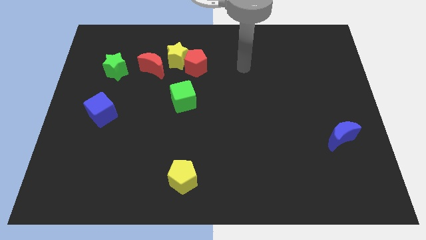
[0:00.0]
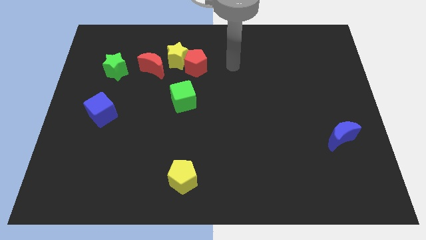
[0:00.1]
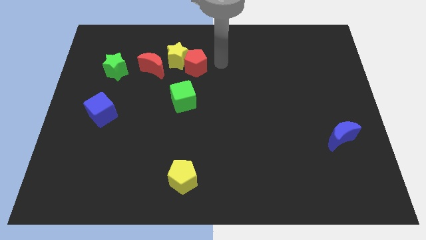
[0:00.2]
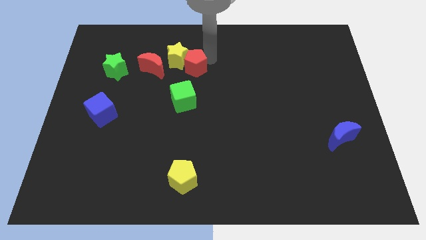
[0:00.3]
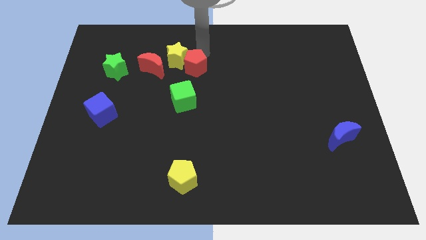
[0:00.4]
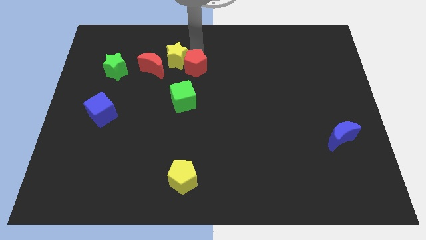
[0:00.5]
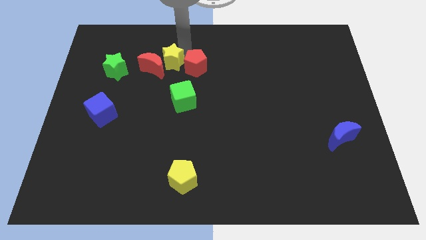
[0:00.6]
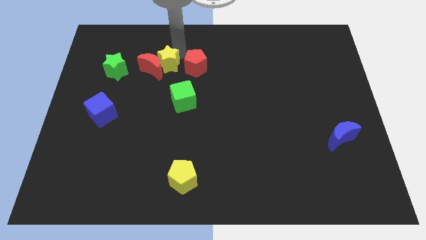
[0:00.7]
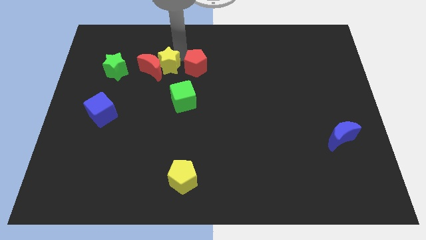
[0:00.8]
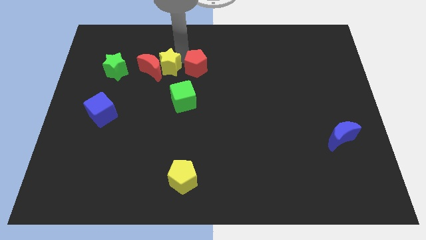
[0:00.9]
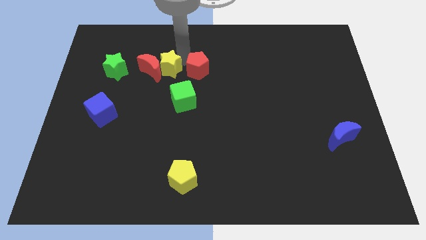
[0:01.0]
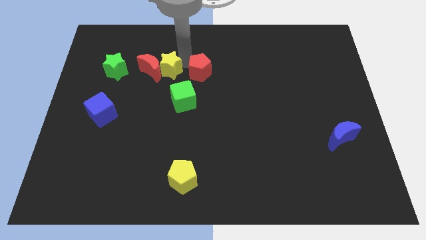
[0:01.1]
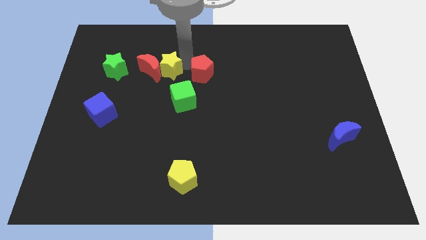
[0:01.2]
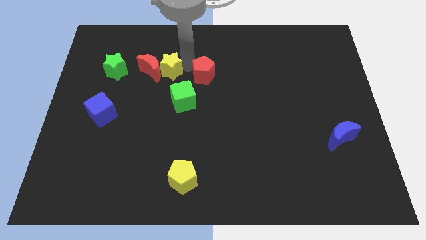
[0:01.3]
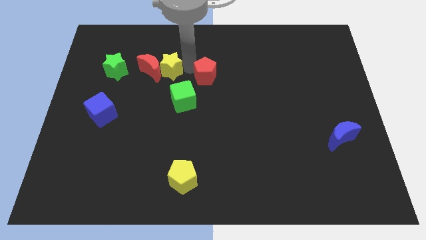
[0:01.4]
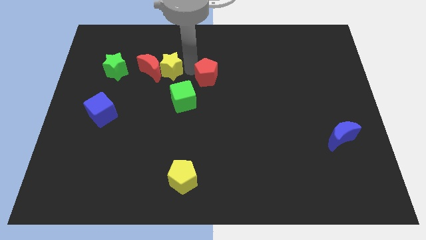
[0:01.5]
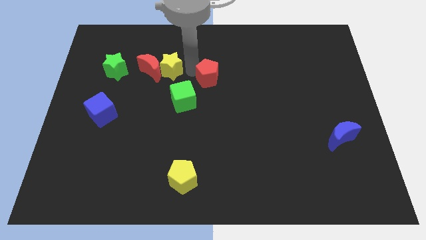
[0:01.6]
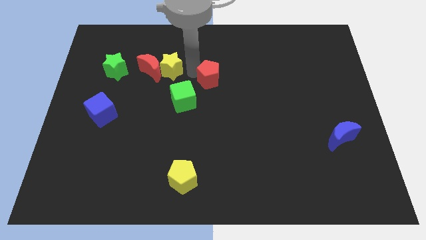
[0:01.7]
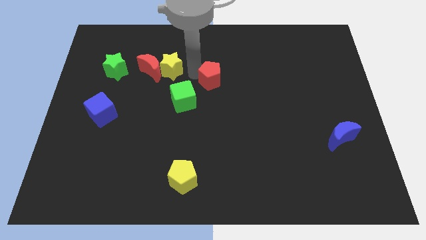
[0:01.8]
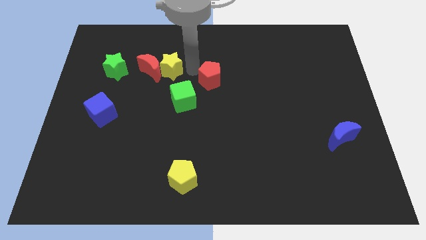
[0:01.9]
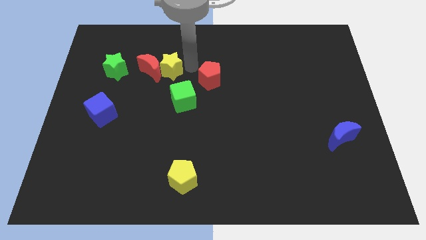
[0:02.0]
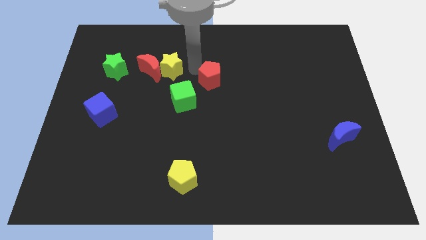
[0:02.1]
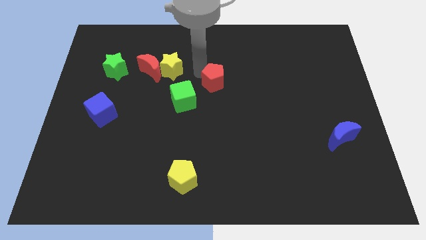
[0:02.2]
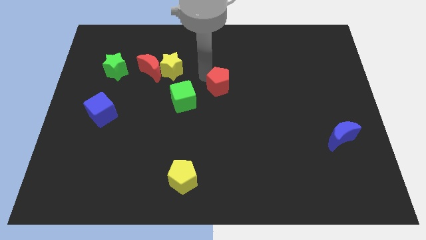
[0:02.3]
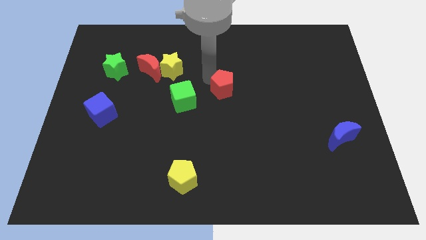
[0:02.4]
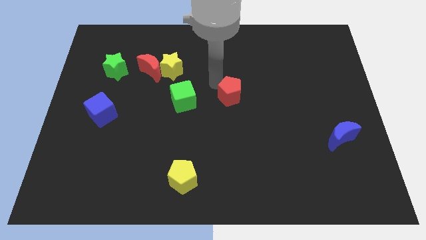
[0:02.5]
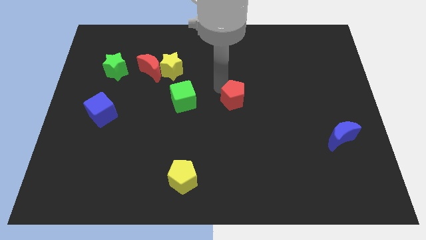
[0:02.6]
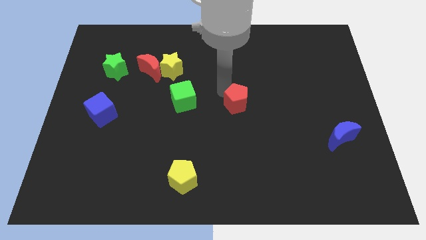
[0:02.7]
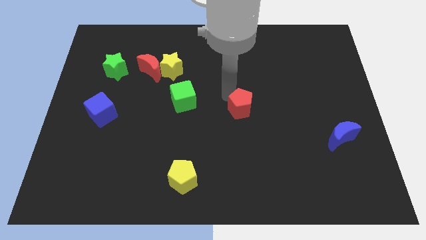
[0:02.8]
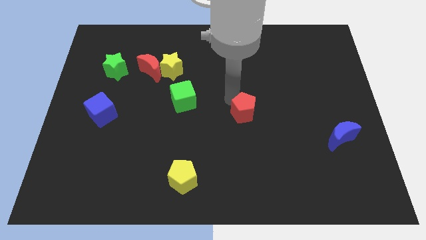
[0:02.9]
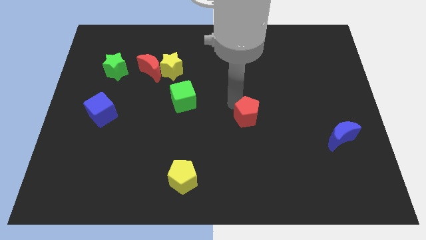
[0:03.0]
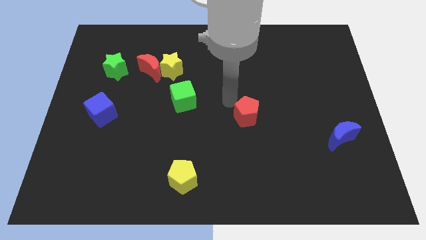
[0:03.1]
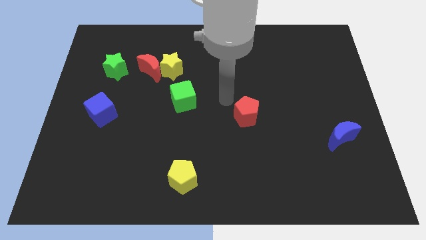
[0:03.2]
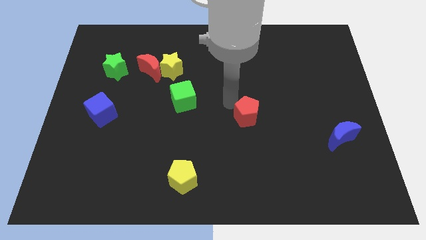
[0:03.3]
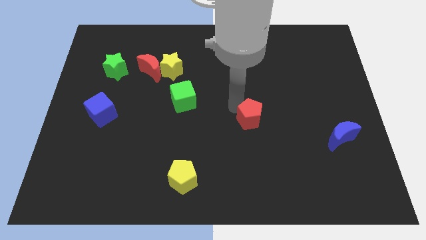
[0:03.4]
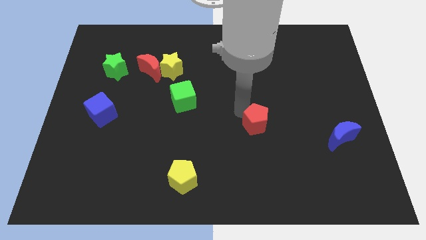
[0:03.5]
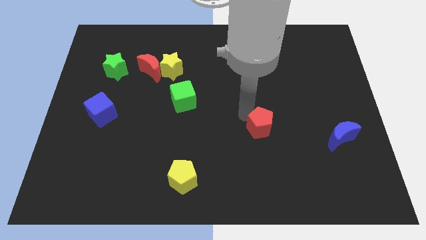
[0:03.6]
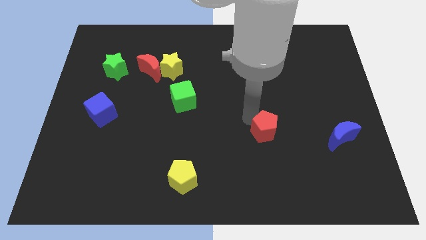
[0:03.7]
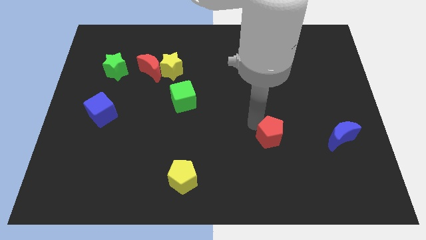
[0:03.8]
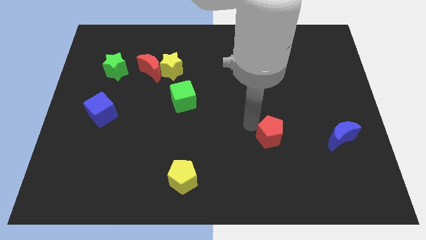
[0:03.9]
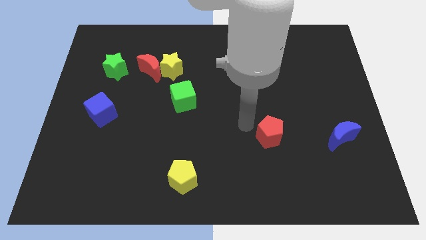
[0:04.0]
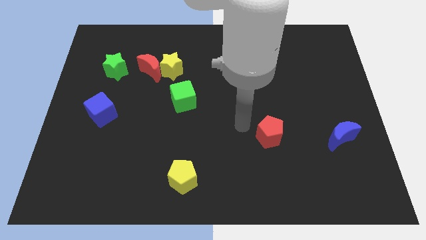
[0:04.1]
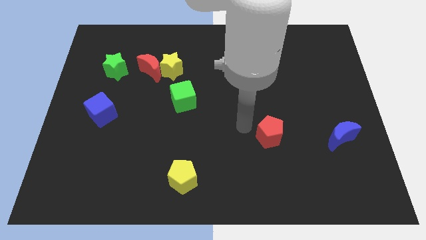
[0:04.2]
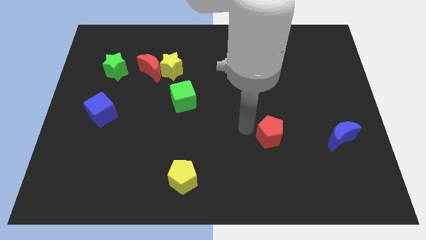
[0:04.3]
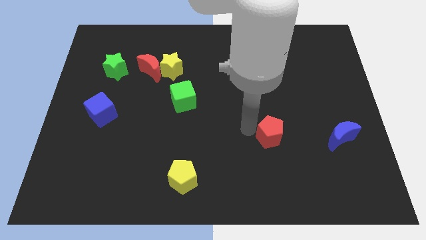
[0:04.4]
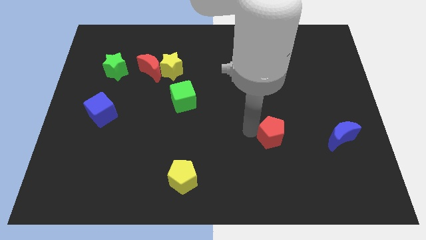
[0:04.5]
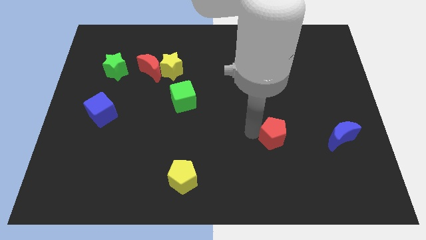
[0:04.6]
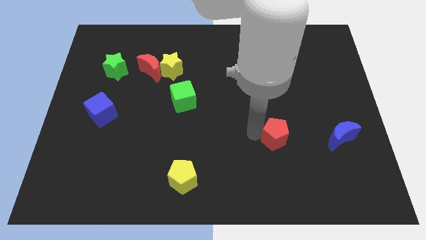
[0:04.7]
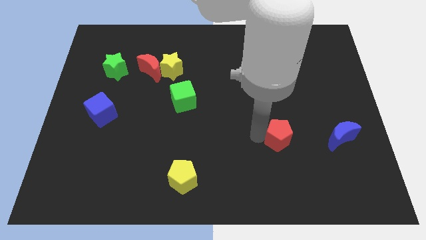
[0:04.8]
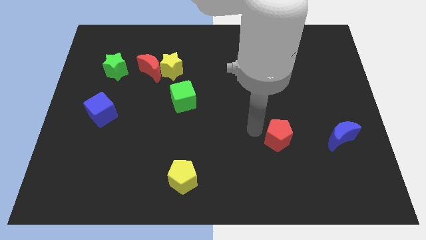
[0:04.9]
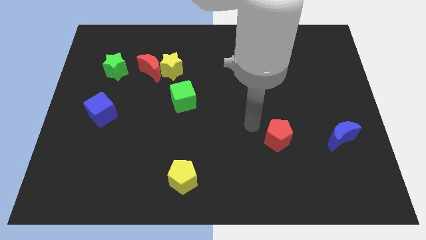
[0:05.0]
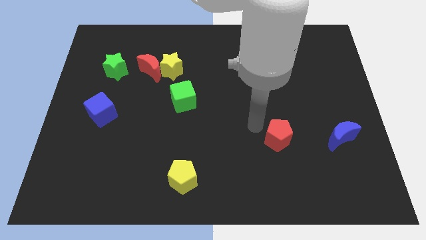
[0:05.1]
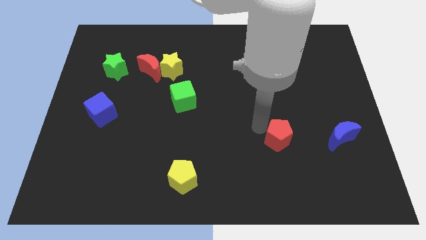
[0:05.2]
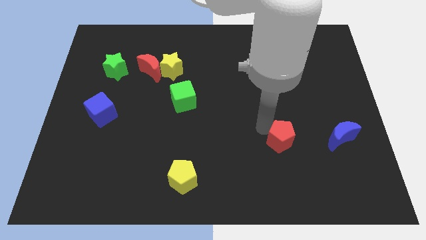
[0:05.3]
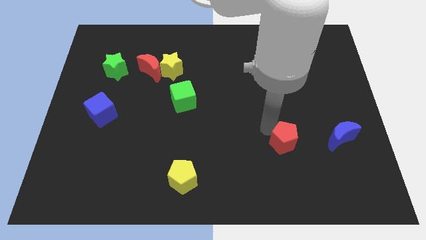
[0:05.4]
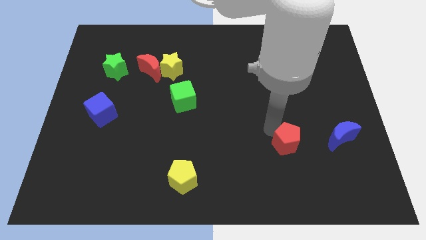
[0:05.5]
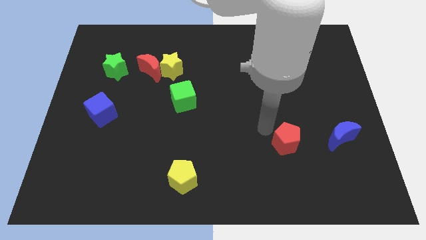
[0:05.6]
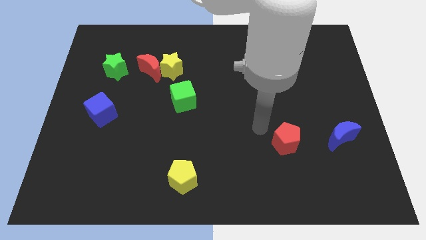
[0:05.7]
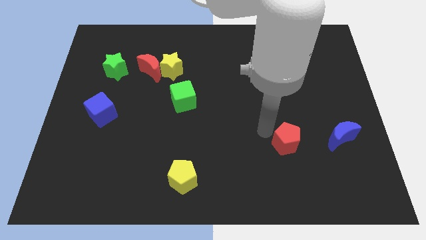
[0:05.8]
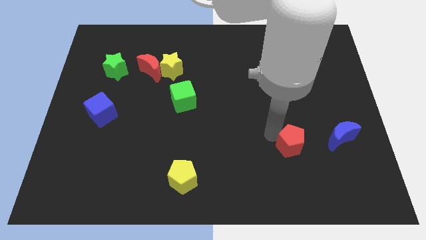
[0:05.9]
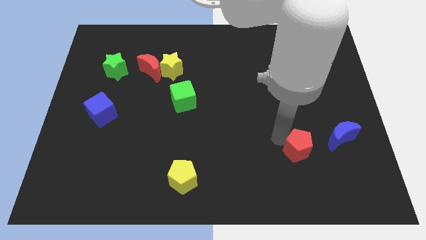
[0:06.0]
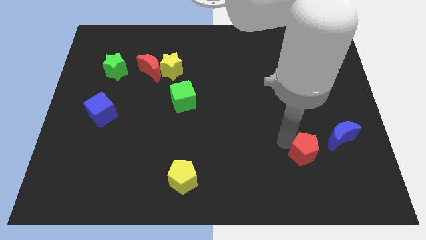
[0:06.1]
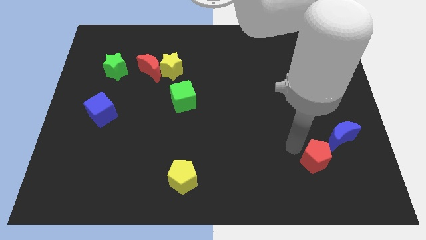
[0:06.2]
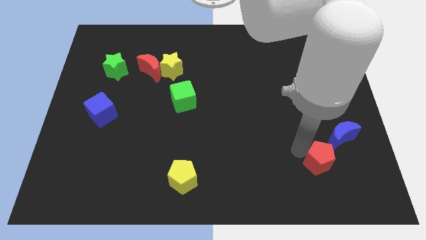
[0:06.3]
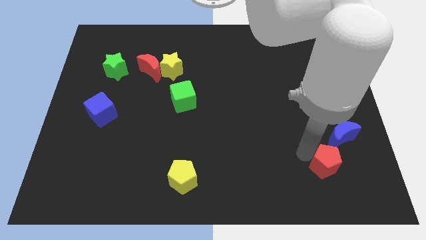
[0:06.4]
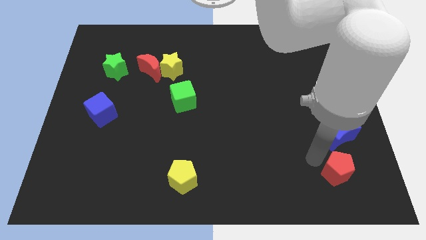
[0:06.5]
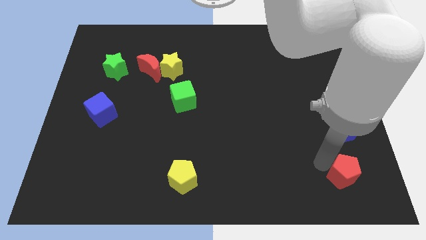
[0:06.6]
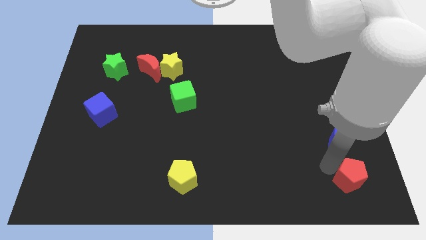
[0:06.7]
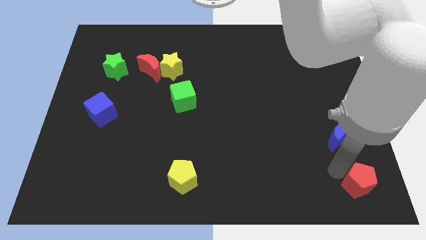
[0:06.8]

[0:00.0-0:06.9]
push the red pentagon to the bottom right
